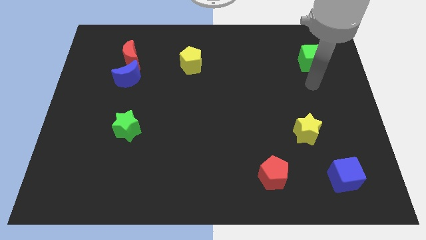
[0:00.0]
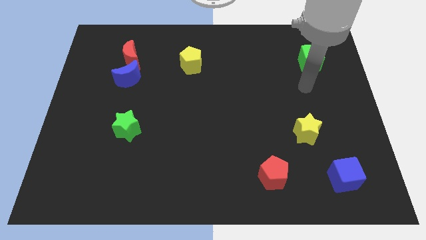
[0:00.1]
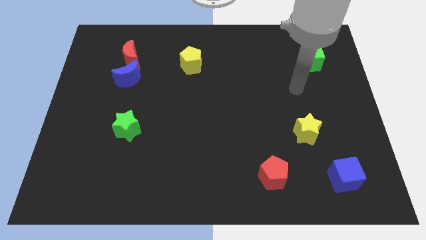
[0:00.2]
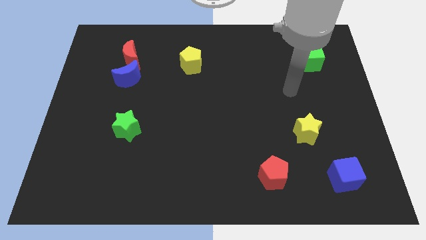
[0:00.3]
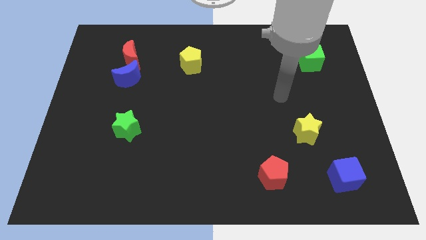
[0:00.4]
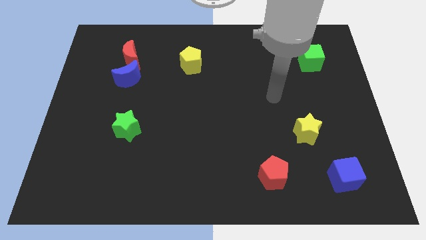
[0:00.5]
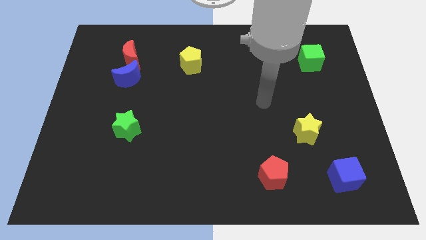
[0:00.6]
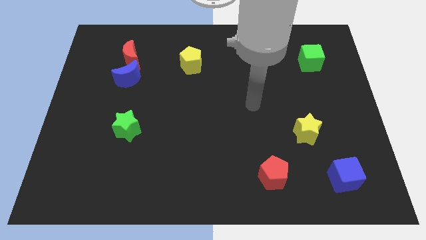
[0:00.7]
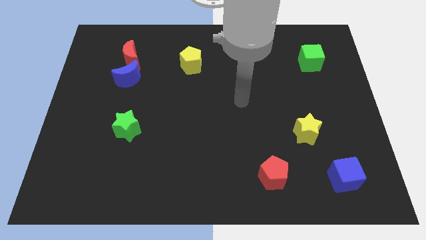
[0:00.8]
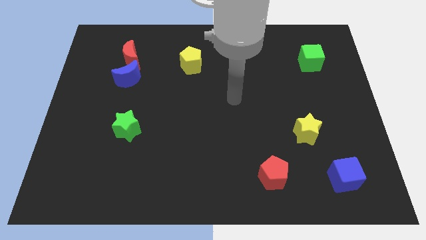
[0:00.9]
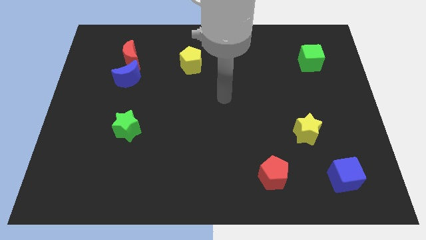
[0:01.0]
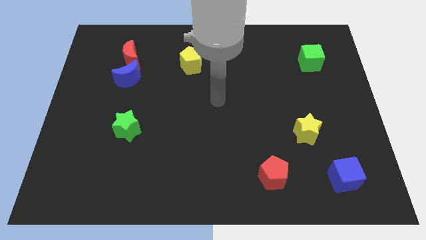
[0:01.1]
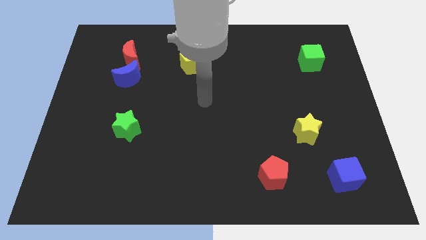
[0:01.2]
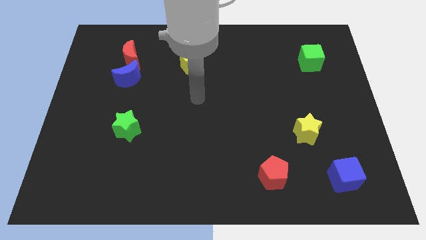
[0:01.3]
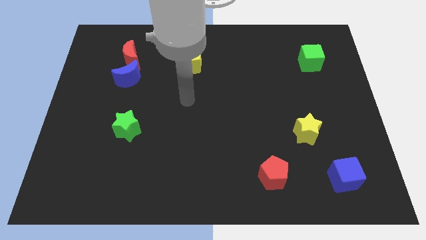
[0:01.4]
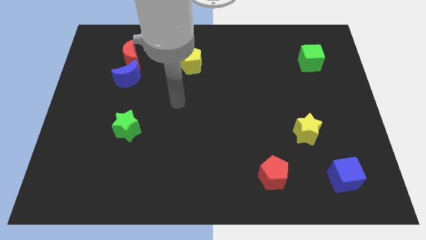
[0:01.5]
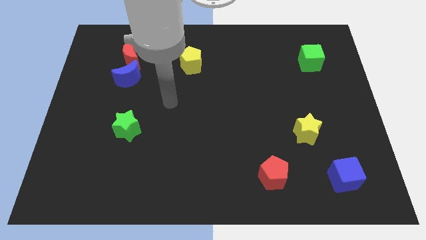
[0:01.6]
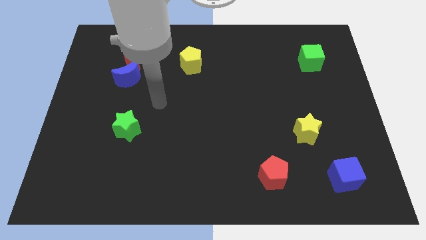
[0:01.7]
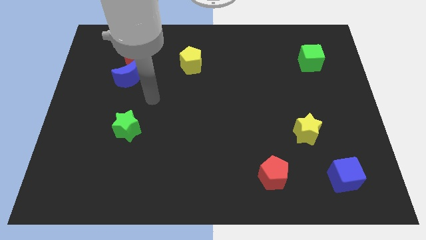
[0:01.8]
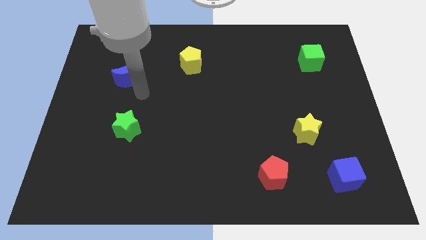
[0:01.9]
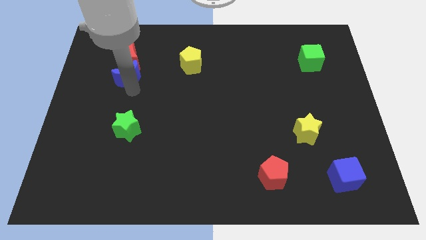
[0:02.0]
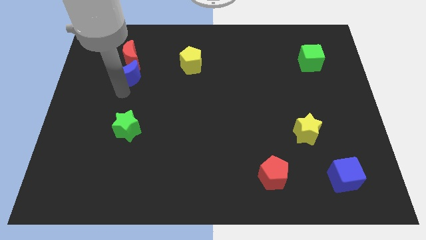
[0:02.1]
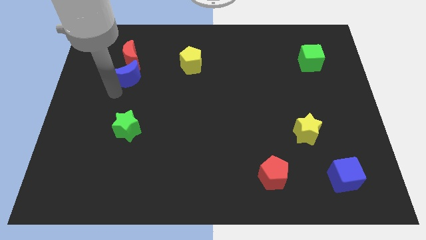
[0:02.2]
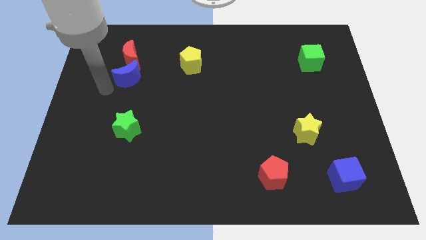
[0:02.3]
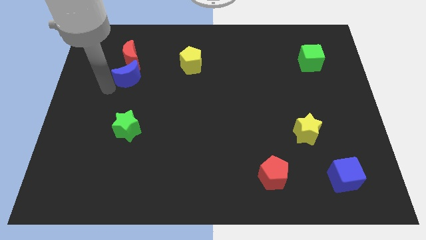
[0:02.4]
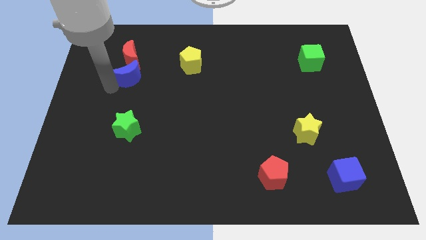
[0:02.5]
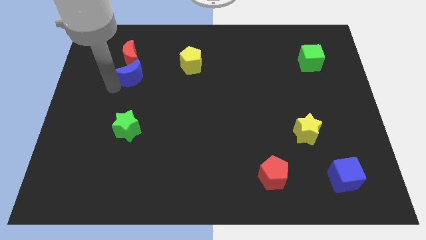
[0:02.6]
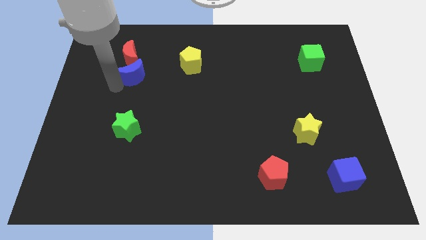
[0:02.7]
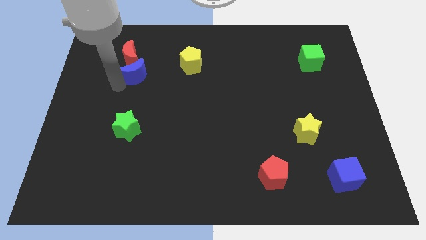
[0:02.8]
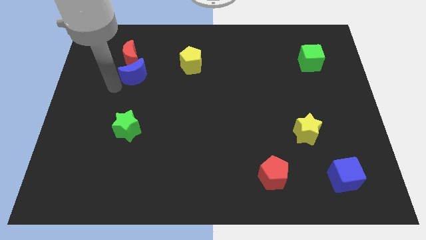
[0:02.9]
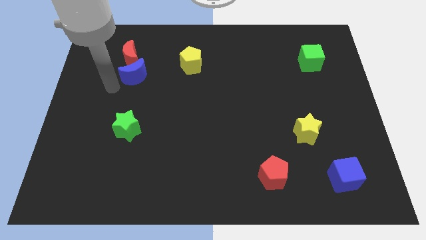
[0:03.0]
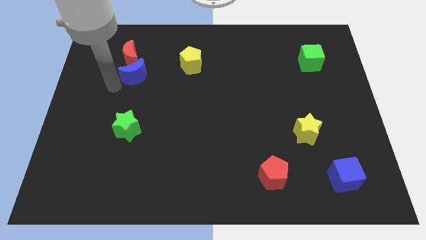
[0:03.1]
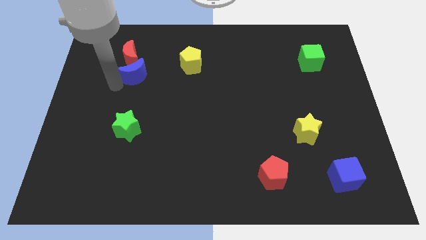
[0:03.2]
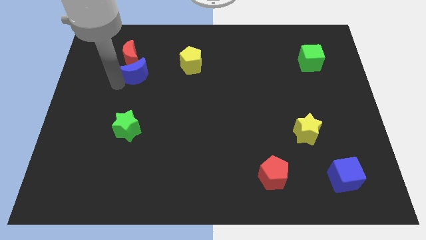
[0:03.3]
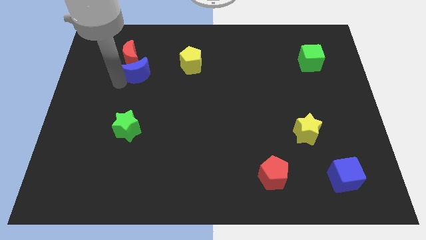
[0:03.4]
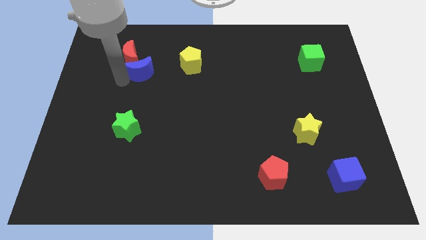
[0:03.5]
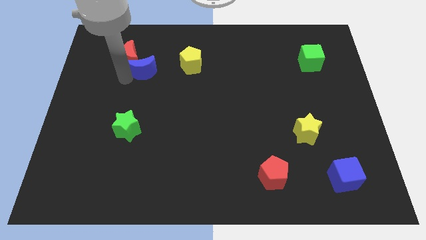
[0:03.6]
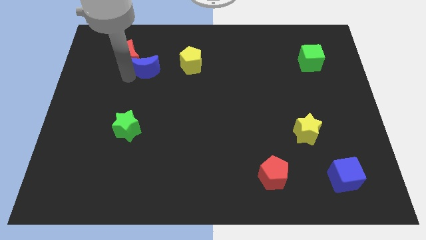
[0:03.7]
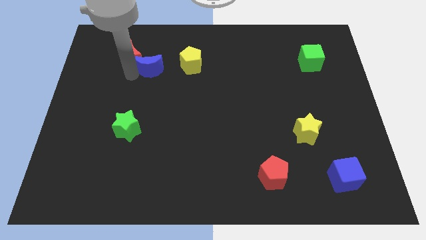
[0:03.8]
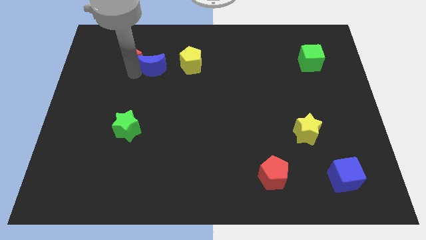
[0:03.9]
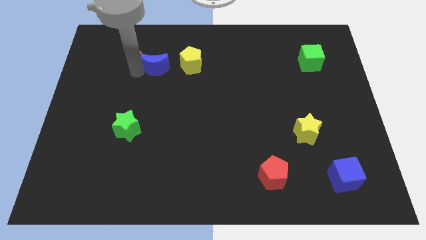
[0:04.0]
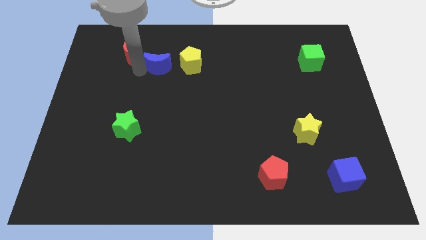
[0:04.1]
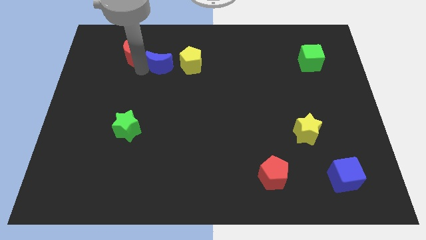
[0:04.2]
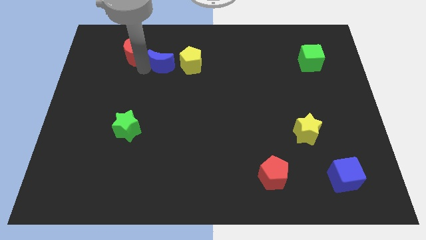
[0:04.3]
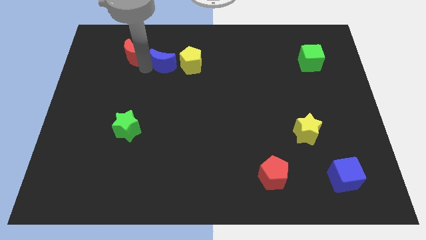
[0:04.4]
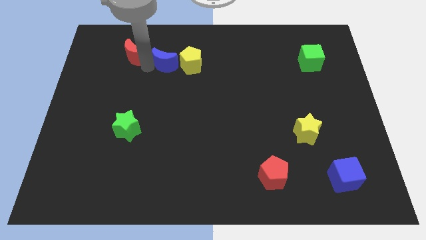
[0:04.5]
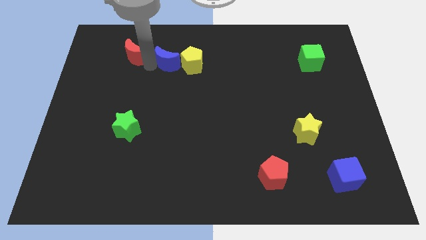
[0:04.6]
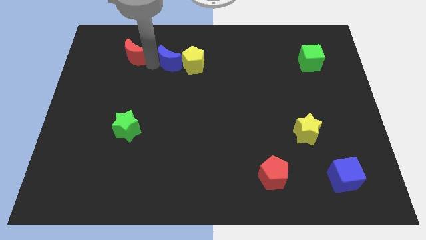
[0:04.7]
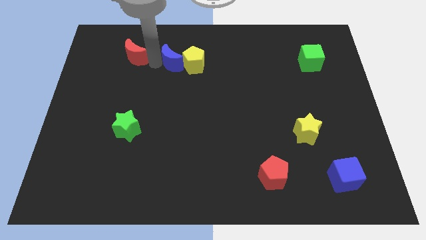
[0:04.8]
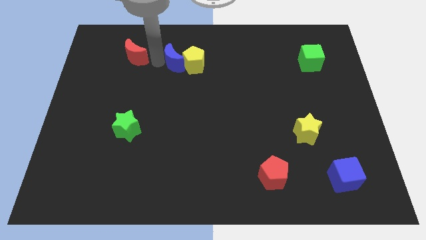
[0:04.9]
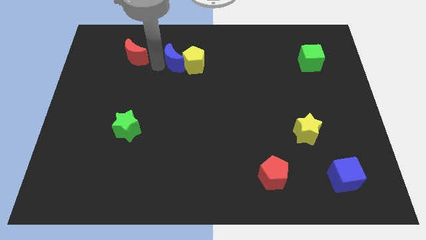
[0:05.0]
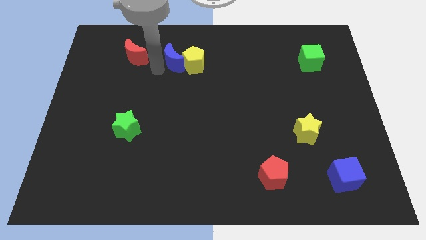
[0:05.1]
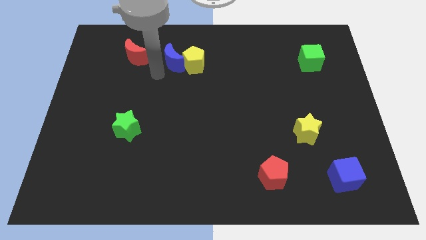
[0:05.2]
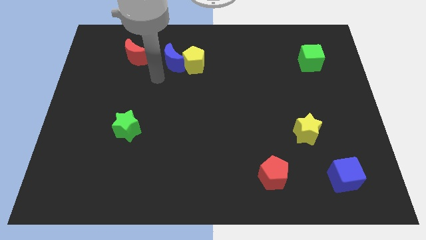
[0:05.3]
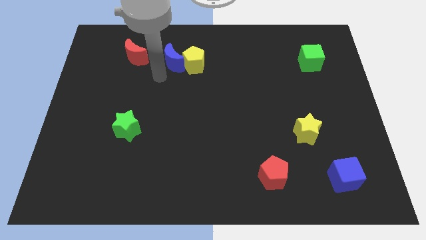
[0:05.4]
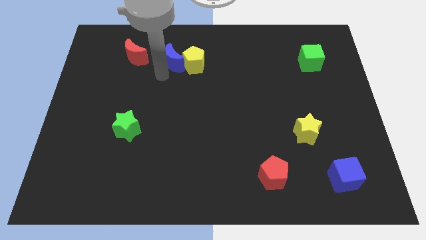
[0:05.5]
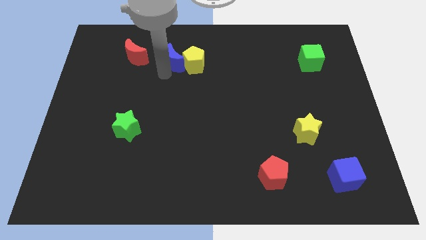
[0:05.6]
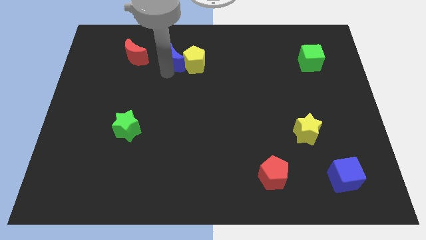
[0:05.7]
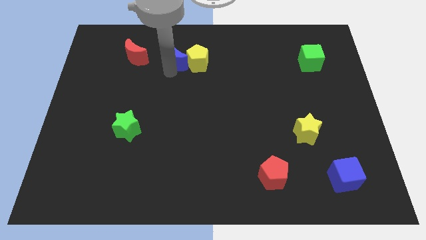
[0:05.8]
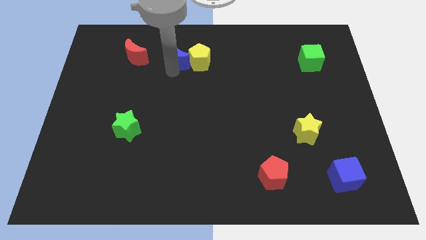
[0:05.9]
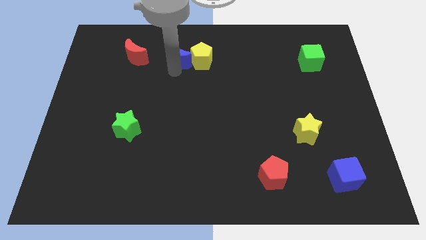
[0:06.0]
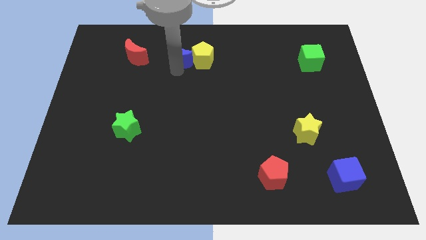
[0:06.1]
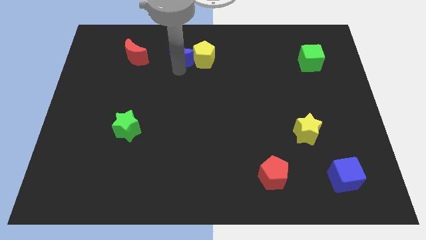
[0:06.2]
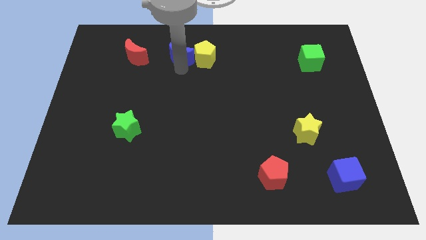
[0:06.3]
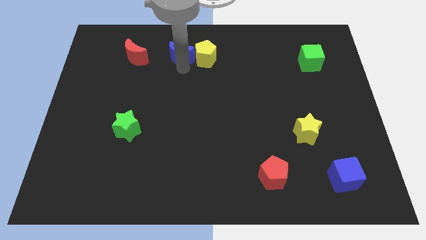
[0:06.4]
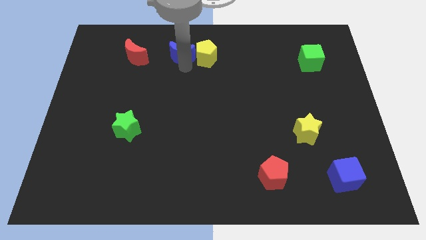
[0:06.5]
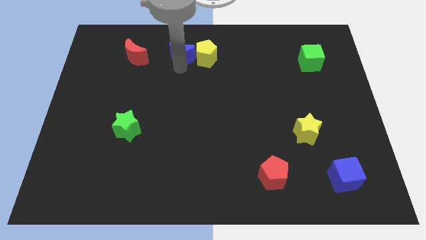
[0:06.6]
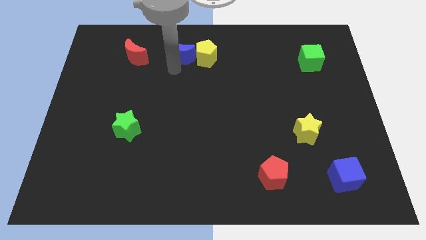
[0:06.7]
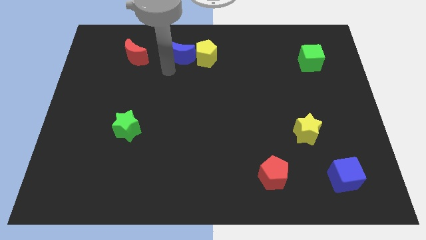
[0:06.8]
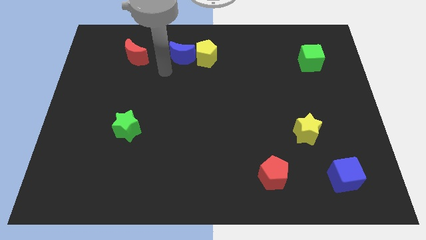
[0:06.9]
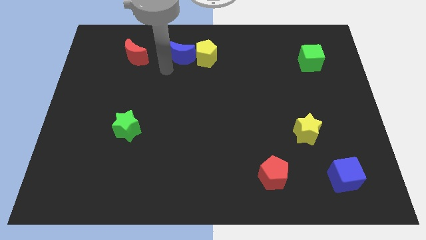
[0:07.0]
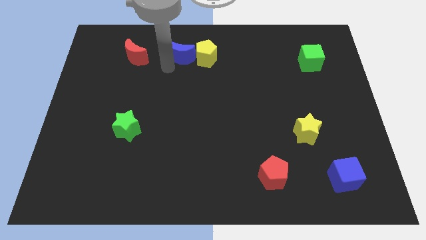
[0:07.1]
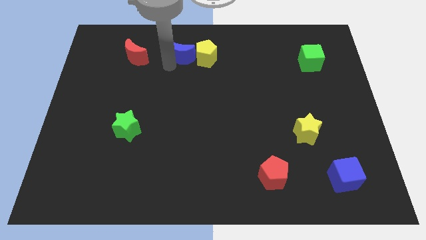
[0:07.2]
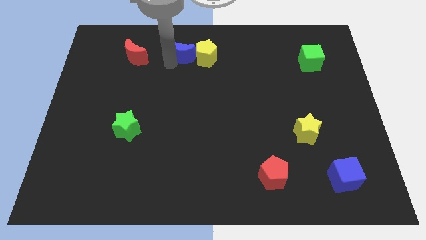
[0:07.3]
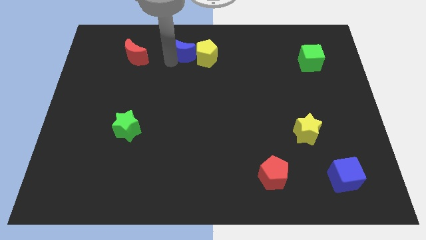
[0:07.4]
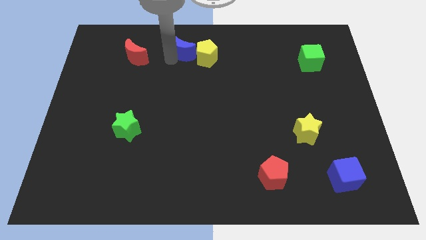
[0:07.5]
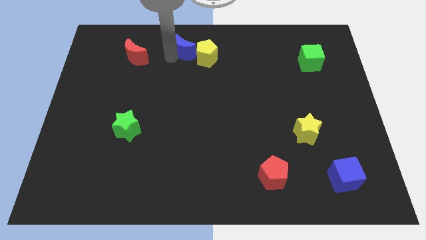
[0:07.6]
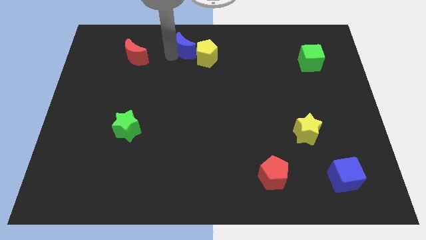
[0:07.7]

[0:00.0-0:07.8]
move the blue moon to the top

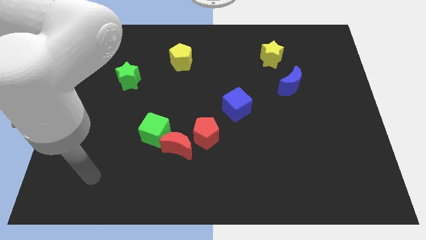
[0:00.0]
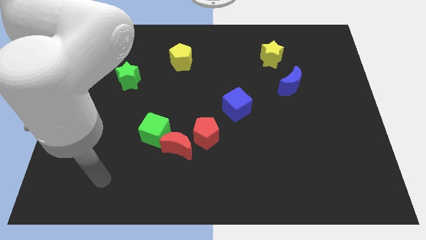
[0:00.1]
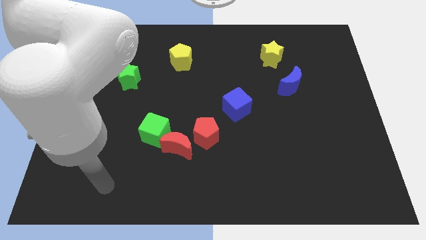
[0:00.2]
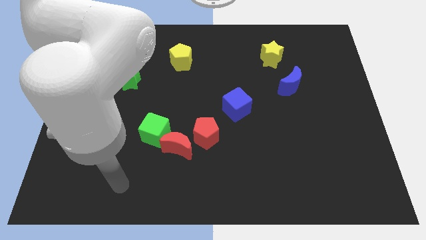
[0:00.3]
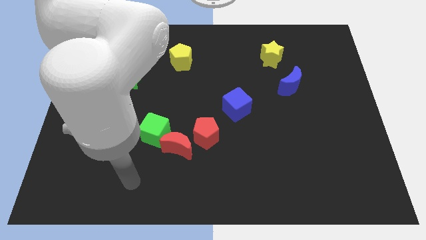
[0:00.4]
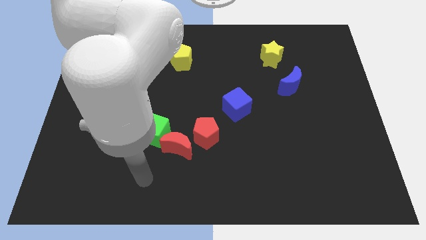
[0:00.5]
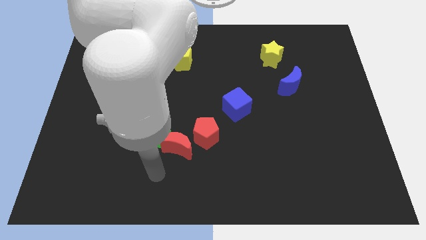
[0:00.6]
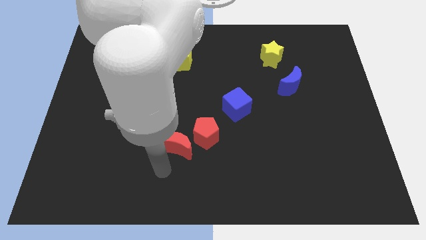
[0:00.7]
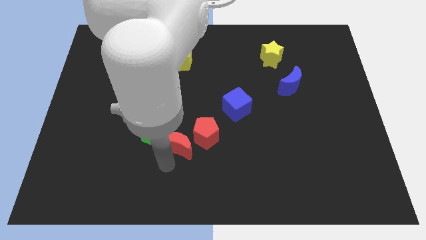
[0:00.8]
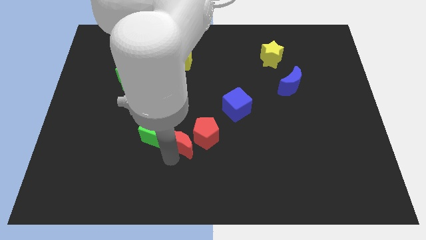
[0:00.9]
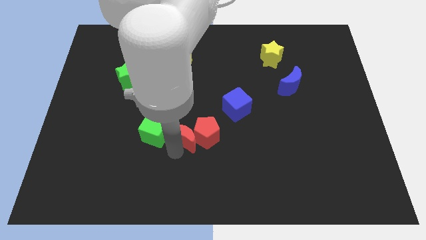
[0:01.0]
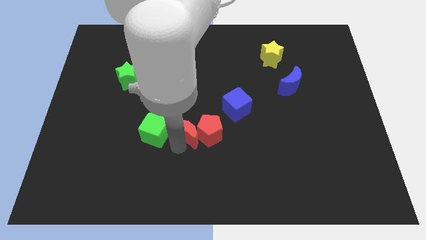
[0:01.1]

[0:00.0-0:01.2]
push the red moon to the center
